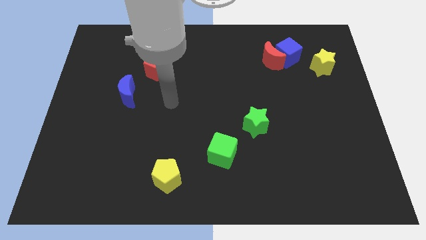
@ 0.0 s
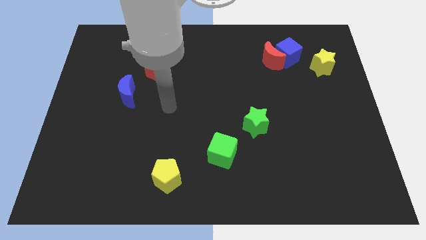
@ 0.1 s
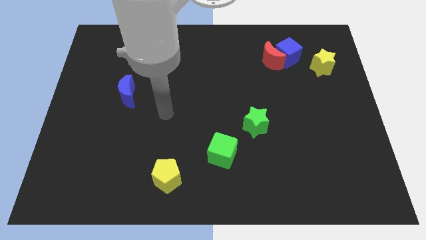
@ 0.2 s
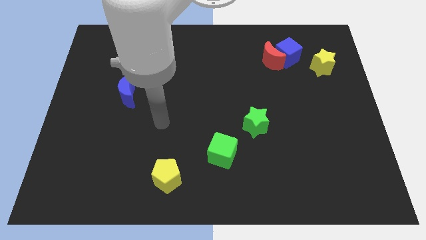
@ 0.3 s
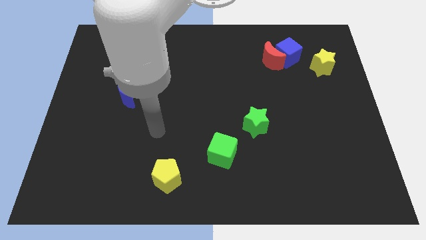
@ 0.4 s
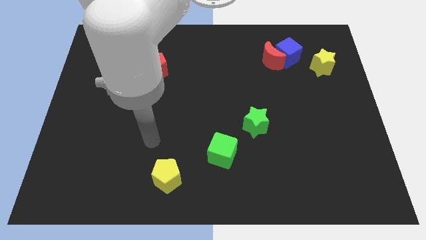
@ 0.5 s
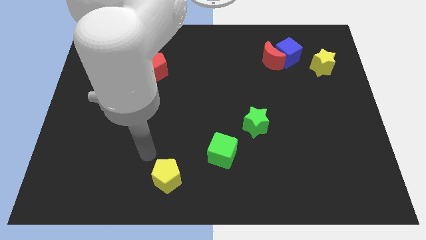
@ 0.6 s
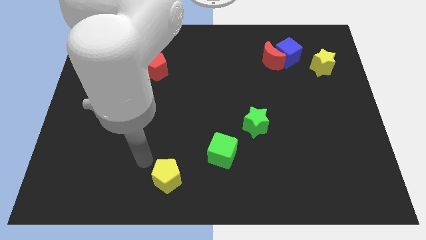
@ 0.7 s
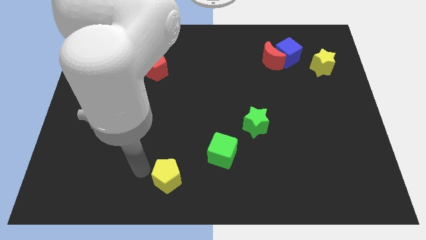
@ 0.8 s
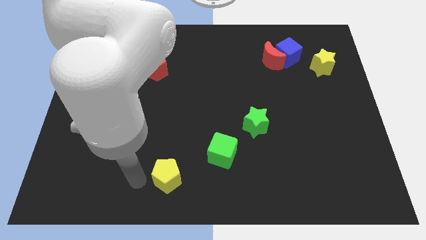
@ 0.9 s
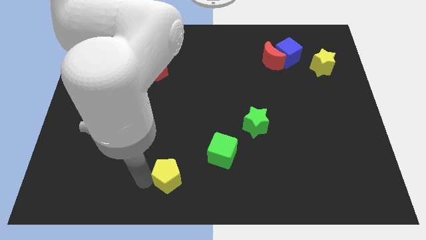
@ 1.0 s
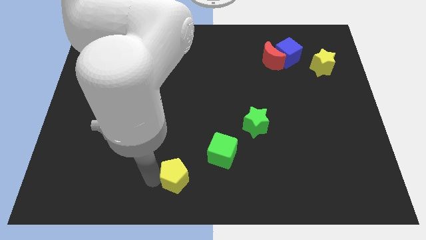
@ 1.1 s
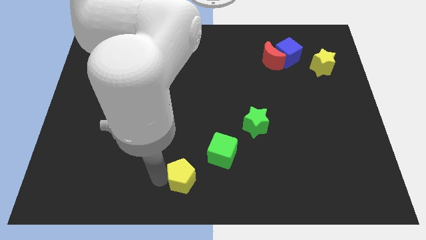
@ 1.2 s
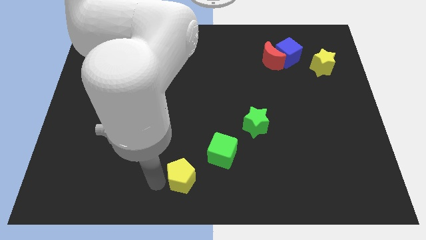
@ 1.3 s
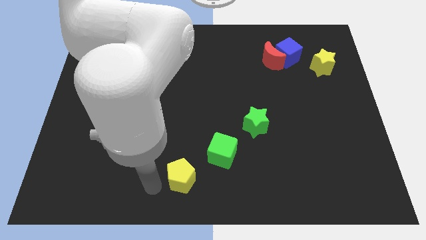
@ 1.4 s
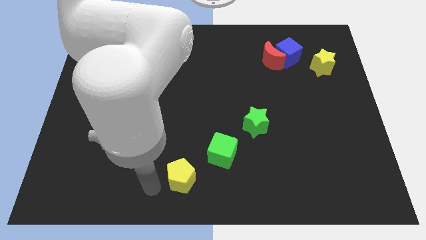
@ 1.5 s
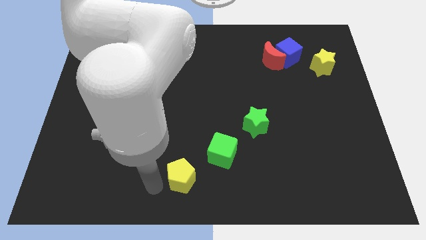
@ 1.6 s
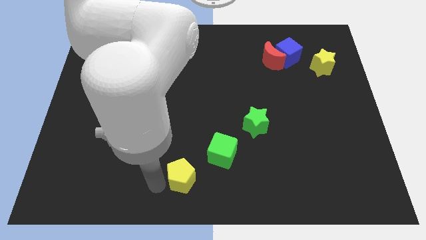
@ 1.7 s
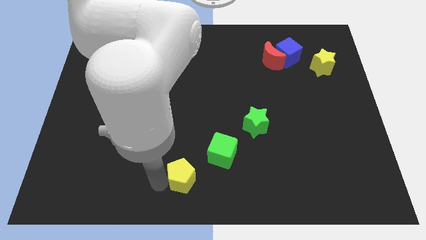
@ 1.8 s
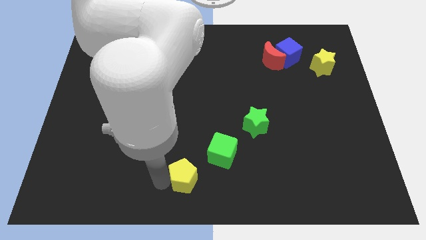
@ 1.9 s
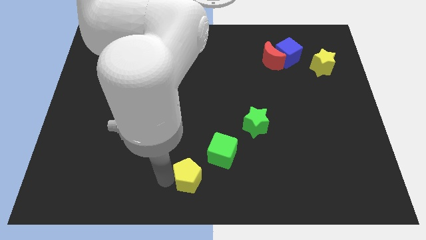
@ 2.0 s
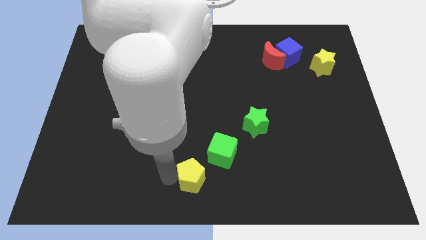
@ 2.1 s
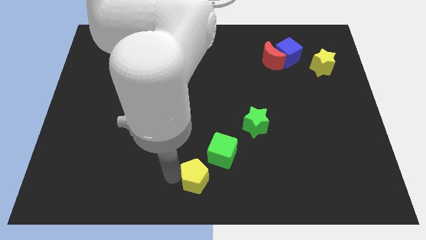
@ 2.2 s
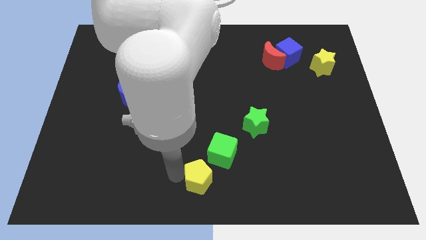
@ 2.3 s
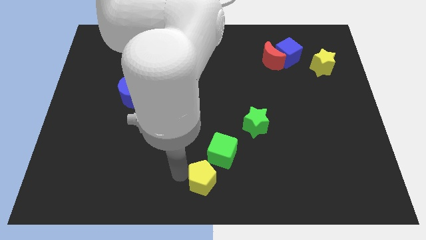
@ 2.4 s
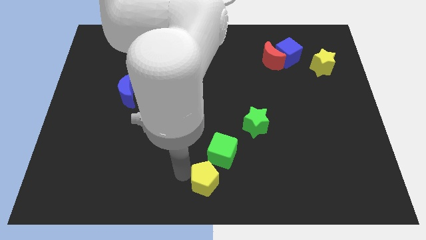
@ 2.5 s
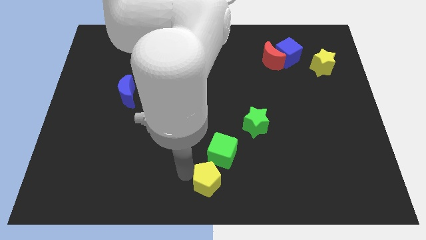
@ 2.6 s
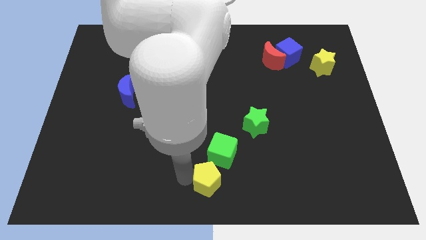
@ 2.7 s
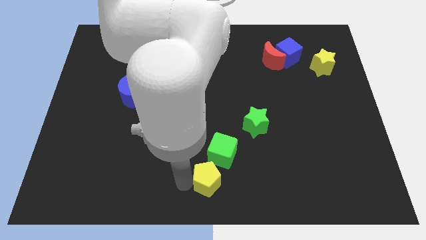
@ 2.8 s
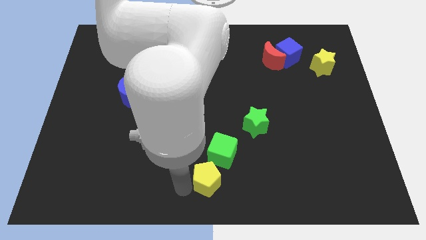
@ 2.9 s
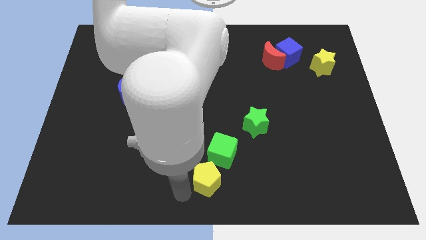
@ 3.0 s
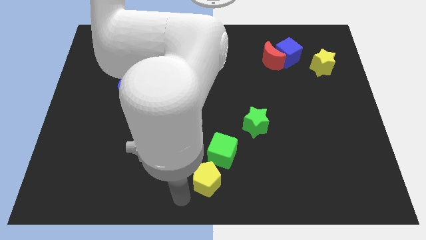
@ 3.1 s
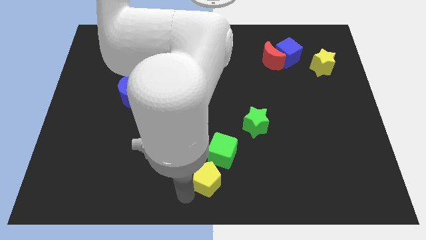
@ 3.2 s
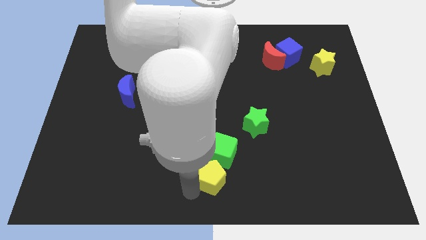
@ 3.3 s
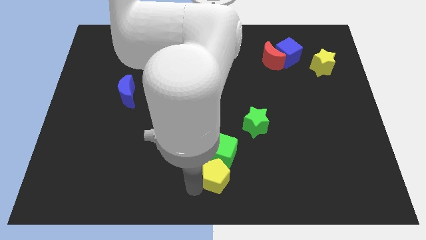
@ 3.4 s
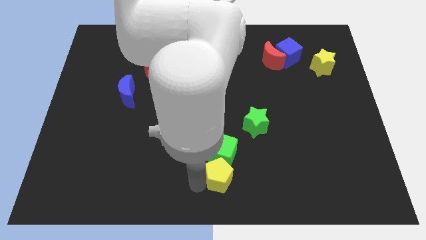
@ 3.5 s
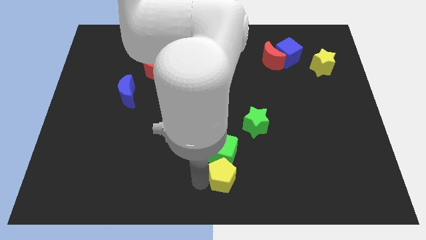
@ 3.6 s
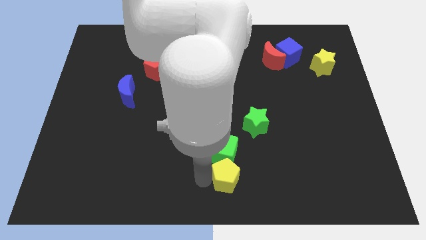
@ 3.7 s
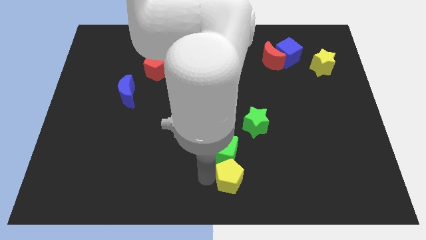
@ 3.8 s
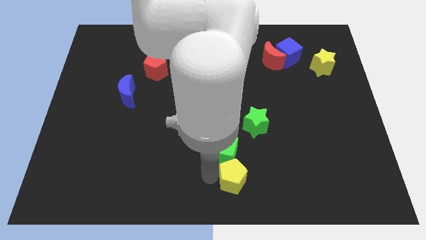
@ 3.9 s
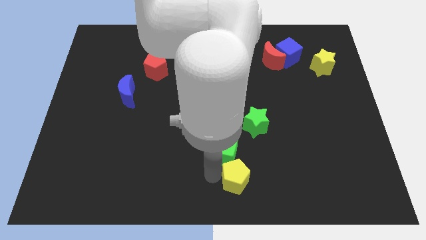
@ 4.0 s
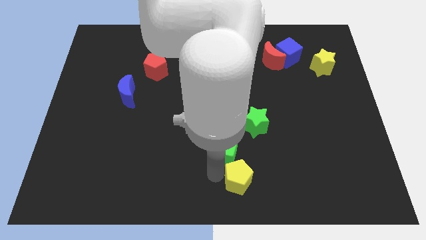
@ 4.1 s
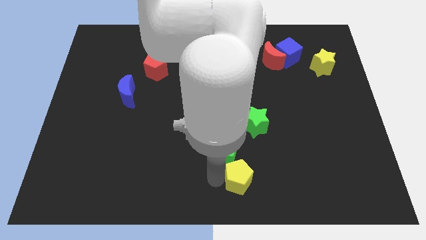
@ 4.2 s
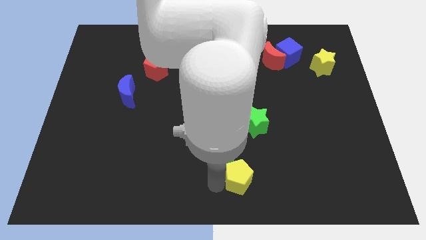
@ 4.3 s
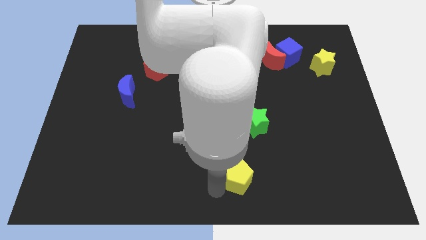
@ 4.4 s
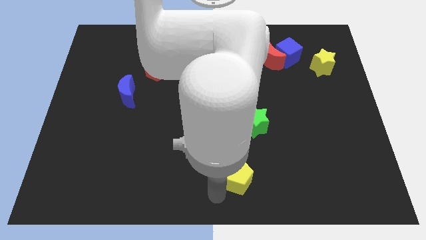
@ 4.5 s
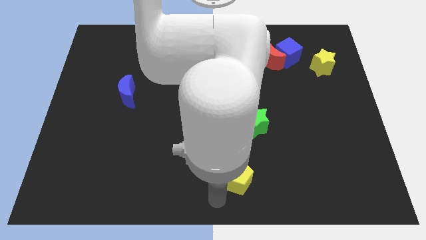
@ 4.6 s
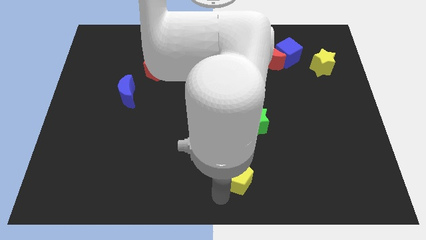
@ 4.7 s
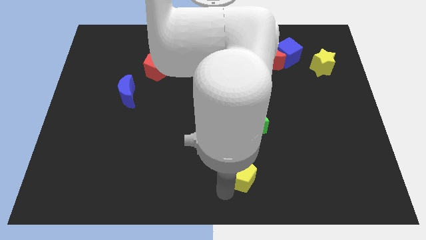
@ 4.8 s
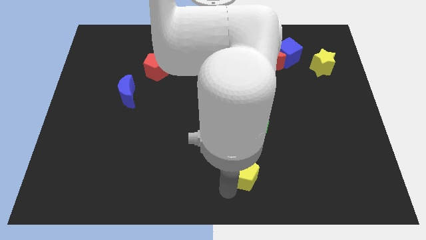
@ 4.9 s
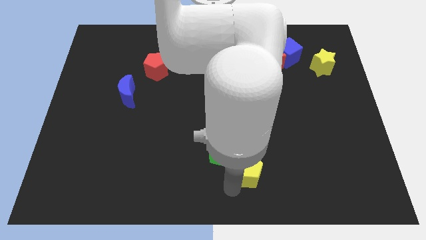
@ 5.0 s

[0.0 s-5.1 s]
slide the yellow pentagon just right of the green cube

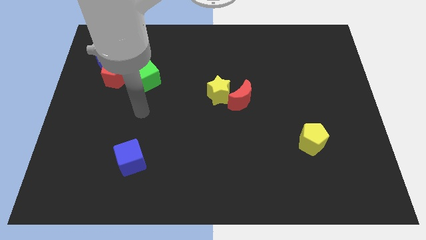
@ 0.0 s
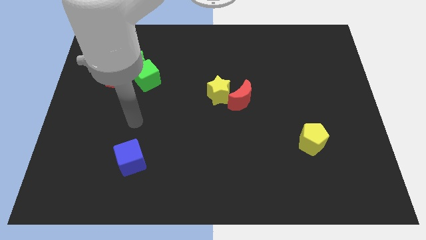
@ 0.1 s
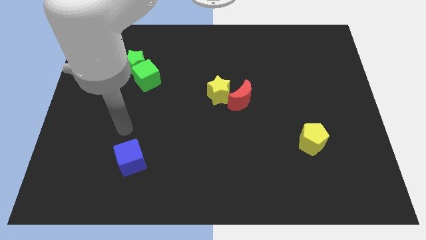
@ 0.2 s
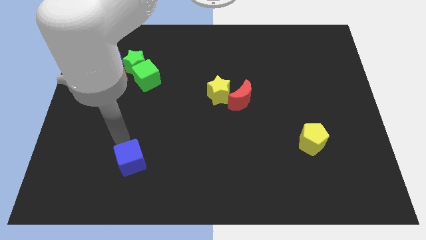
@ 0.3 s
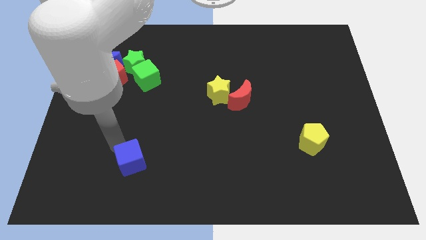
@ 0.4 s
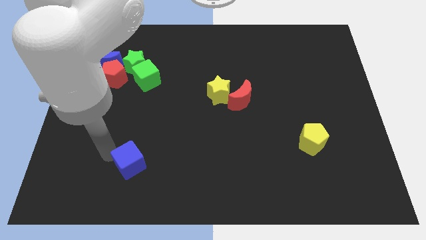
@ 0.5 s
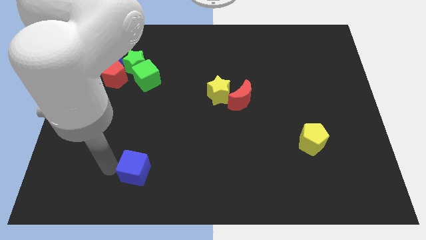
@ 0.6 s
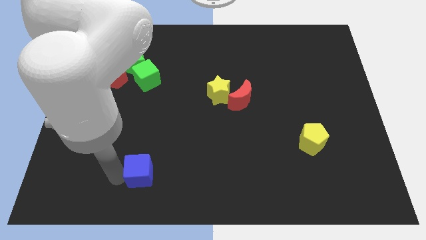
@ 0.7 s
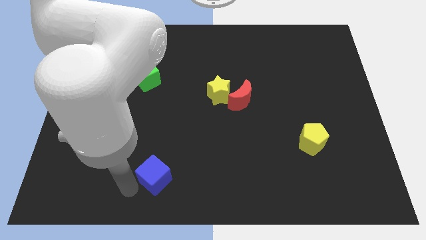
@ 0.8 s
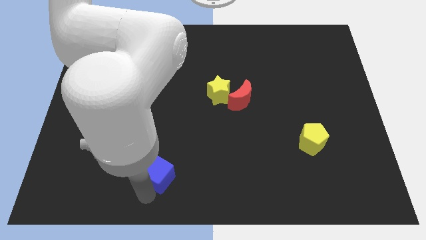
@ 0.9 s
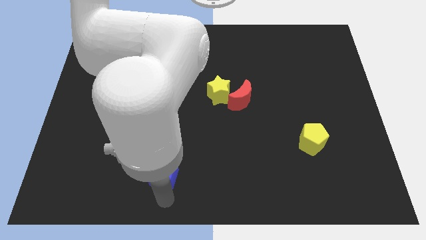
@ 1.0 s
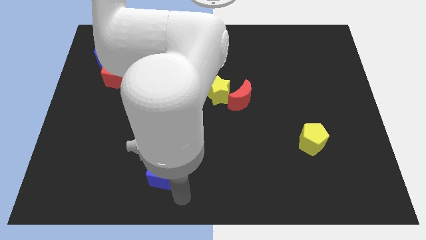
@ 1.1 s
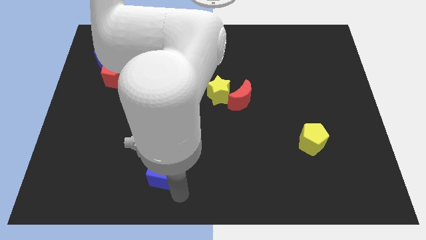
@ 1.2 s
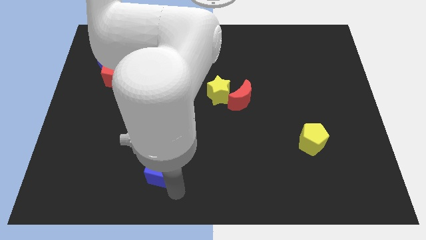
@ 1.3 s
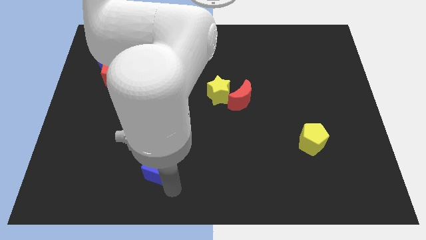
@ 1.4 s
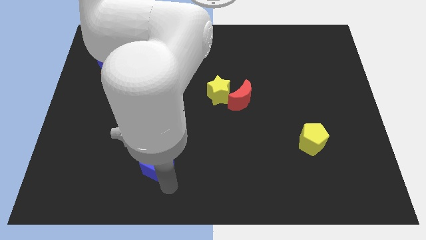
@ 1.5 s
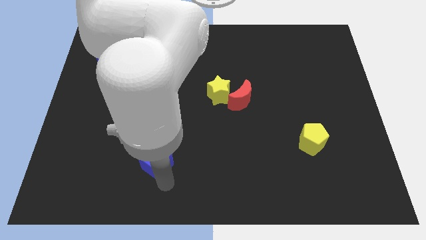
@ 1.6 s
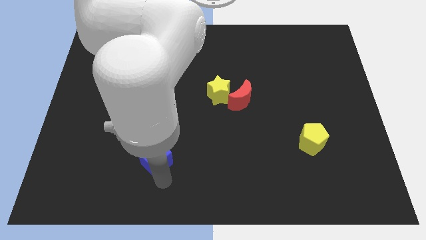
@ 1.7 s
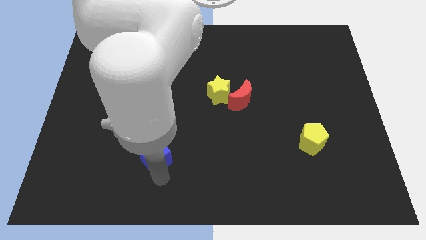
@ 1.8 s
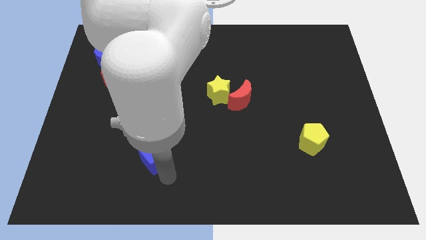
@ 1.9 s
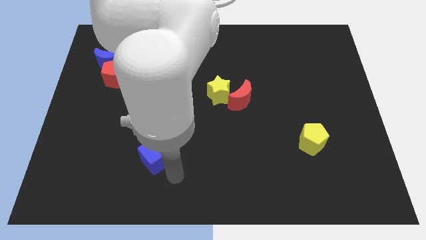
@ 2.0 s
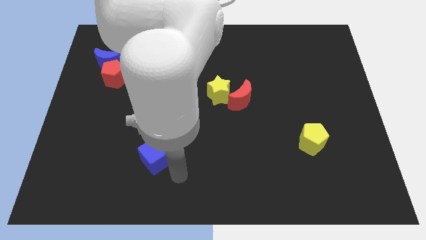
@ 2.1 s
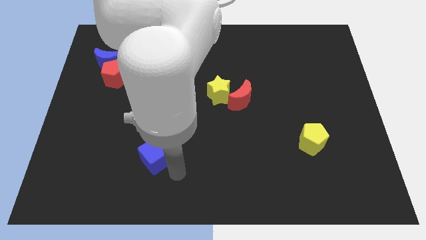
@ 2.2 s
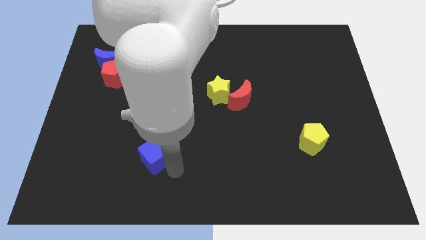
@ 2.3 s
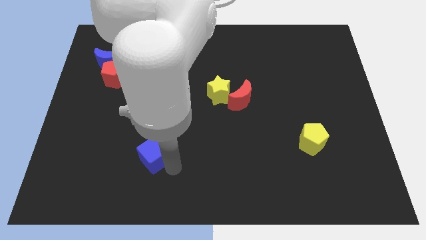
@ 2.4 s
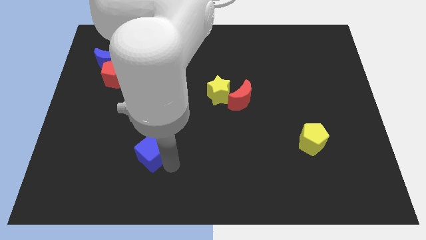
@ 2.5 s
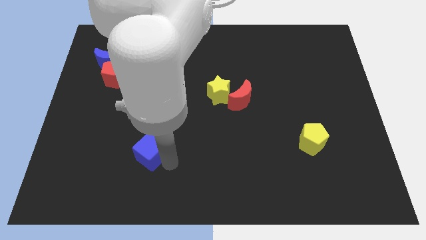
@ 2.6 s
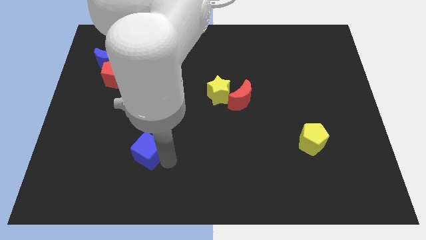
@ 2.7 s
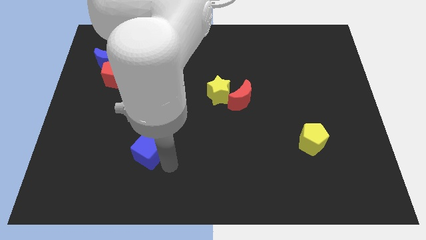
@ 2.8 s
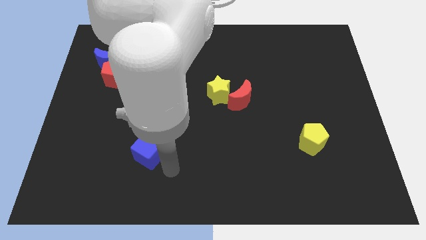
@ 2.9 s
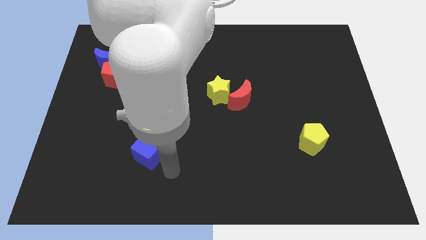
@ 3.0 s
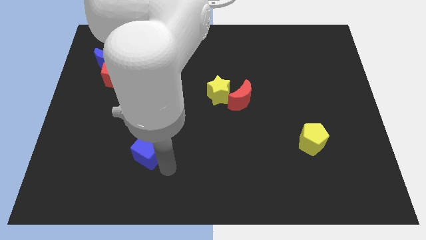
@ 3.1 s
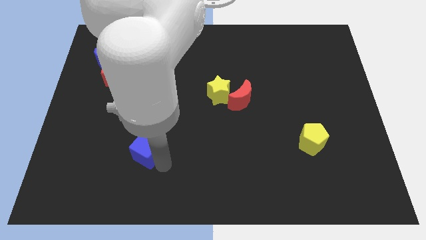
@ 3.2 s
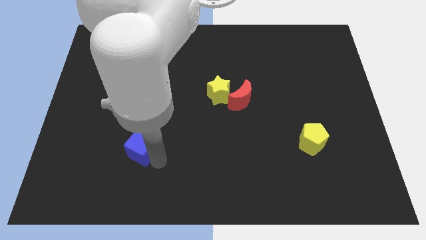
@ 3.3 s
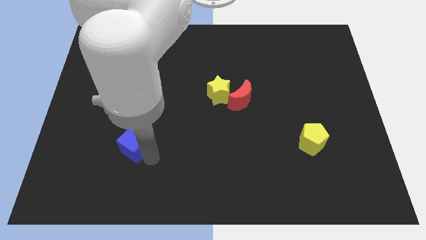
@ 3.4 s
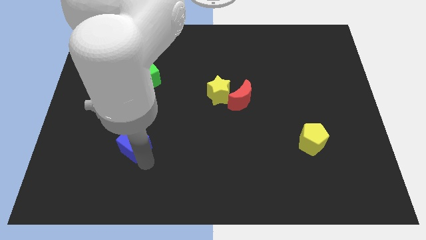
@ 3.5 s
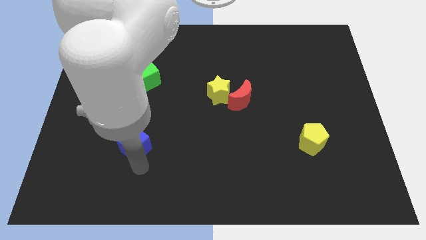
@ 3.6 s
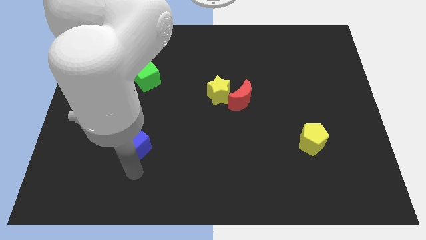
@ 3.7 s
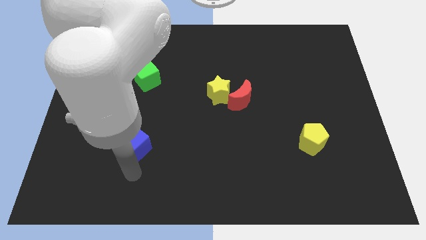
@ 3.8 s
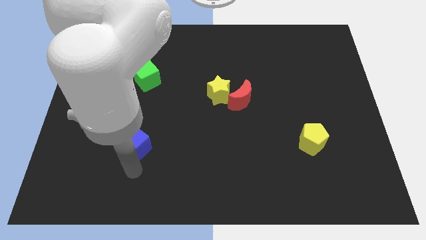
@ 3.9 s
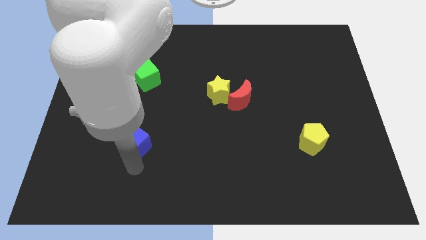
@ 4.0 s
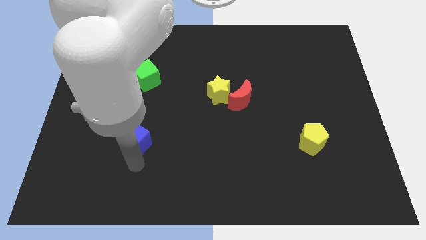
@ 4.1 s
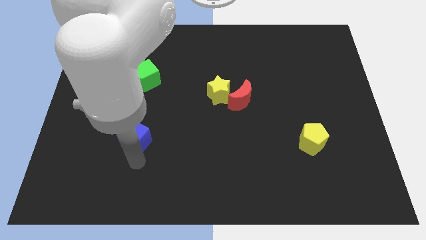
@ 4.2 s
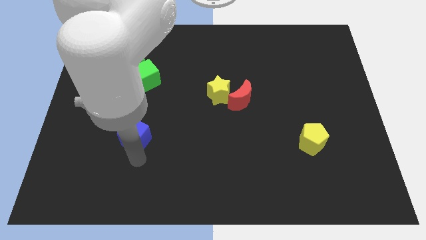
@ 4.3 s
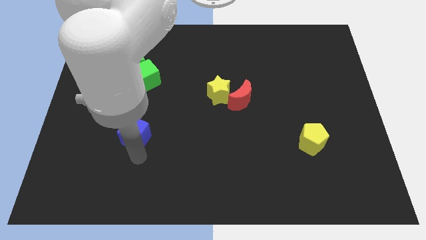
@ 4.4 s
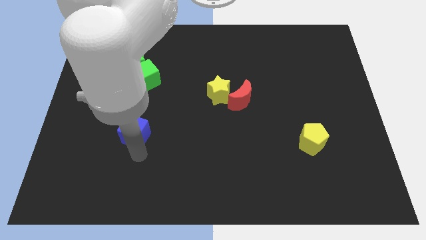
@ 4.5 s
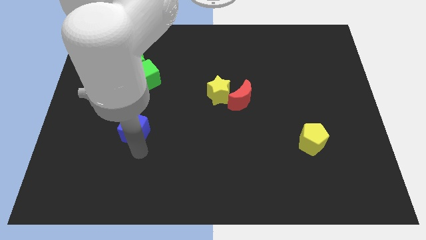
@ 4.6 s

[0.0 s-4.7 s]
slide the blue cube to the bottom side of the green cube
